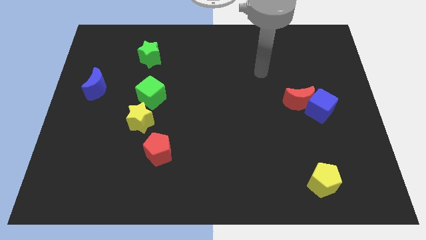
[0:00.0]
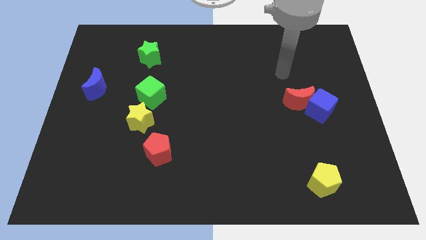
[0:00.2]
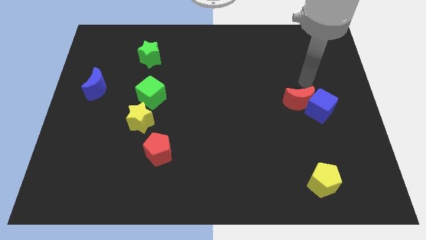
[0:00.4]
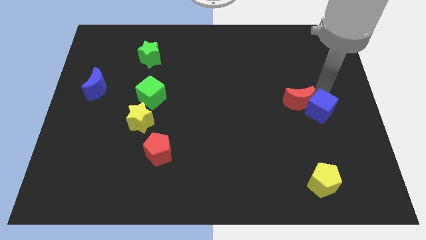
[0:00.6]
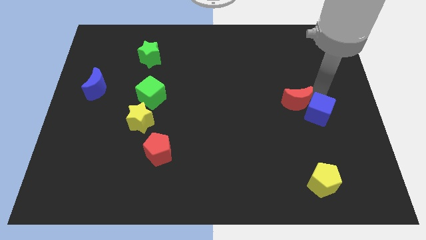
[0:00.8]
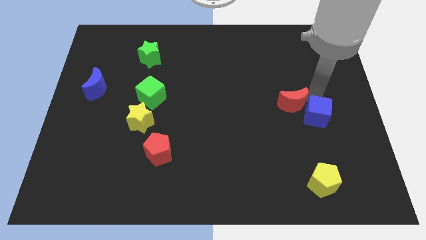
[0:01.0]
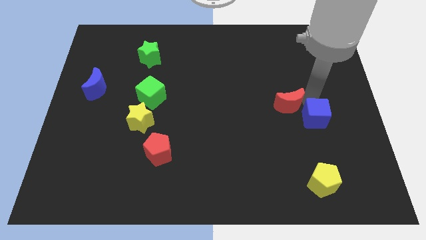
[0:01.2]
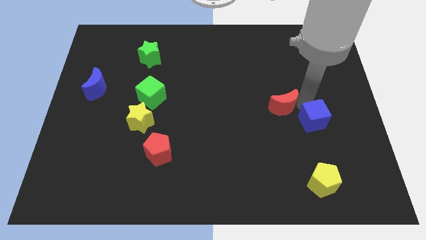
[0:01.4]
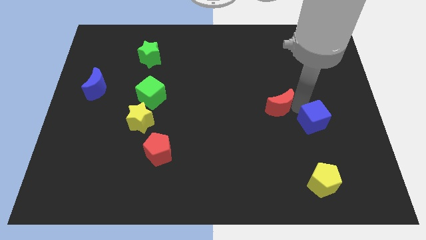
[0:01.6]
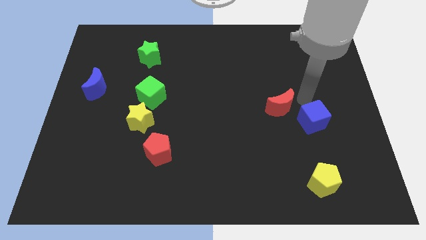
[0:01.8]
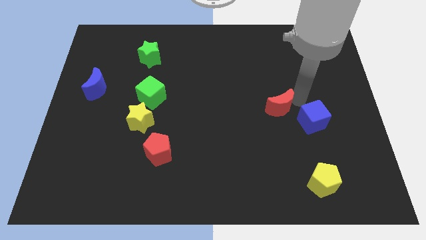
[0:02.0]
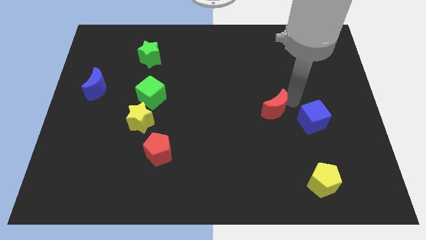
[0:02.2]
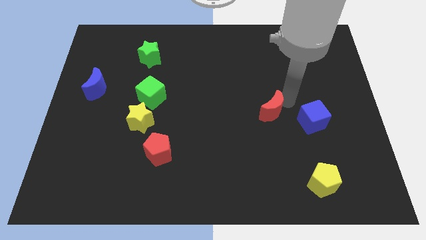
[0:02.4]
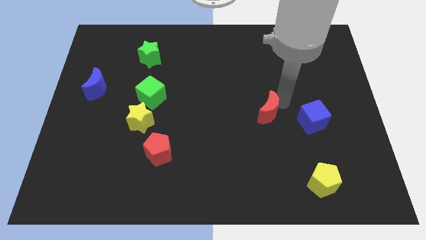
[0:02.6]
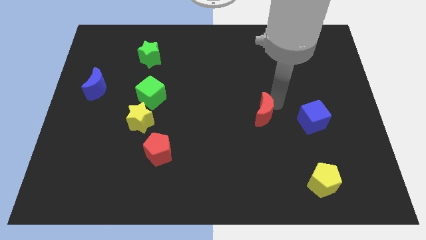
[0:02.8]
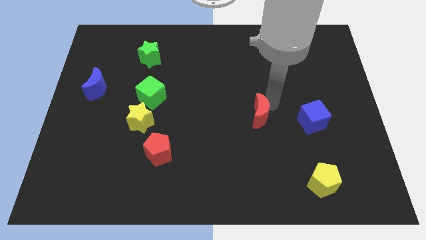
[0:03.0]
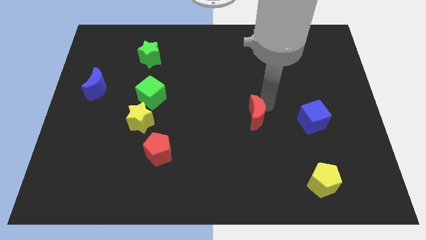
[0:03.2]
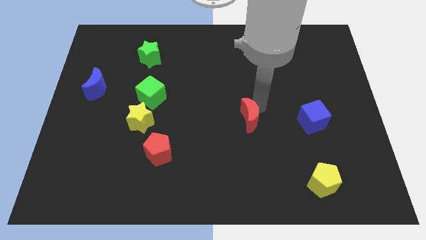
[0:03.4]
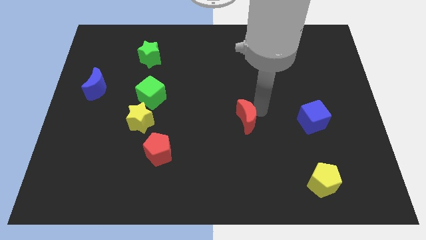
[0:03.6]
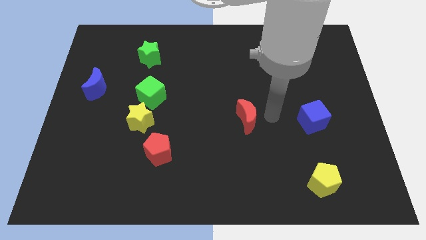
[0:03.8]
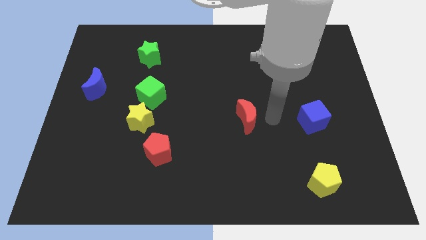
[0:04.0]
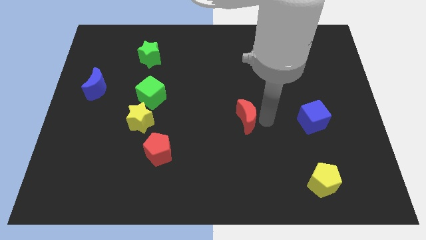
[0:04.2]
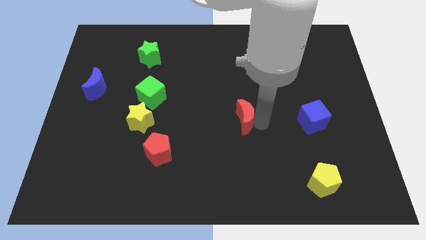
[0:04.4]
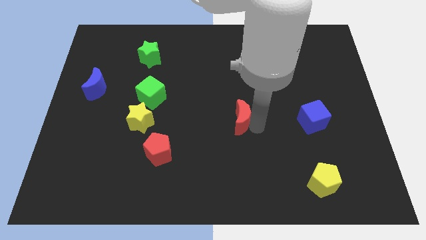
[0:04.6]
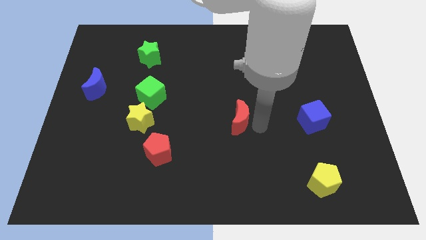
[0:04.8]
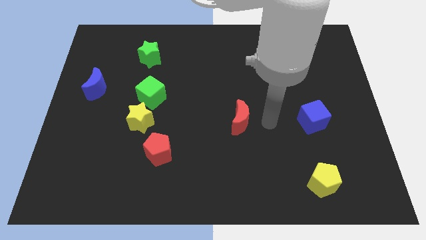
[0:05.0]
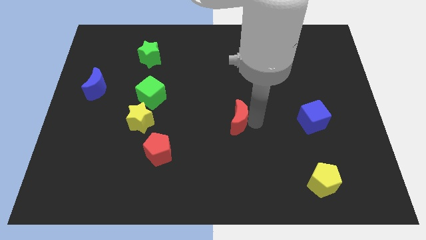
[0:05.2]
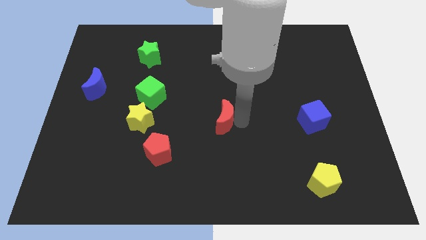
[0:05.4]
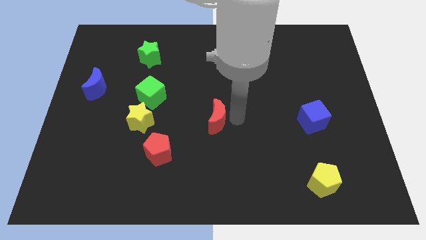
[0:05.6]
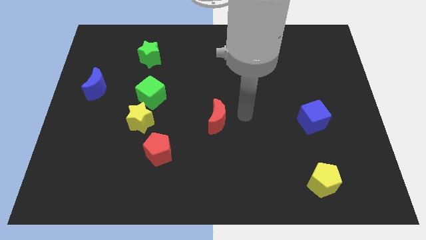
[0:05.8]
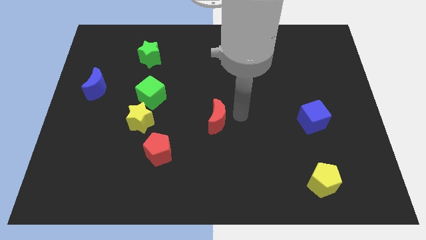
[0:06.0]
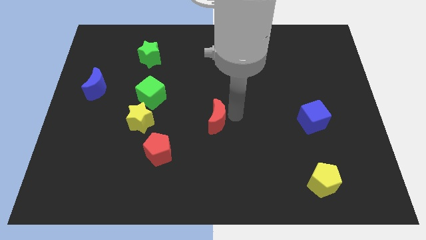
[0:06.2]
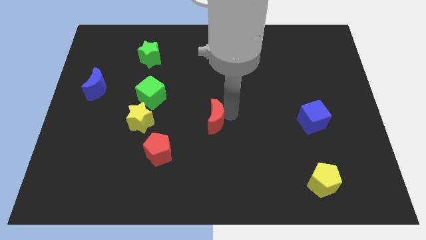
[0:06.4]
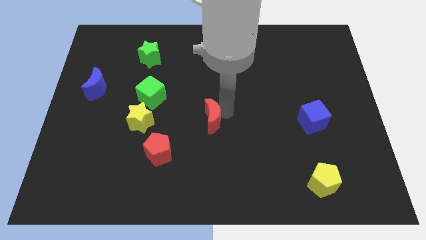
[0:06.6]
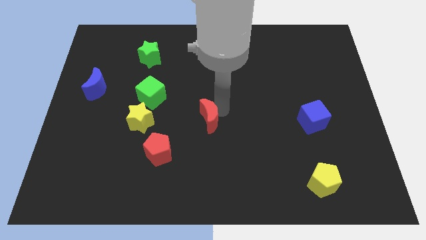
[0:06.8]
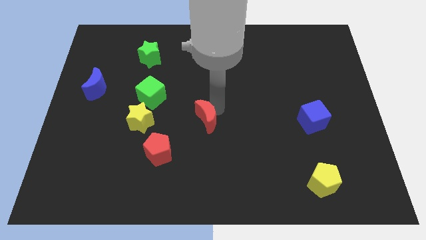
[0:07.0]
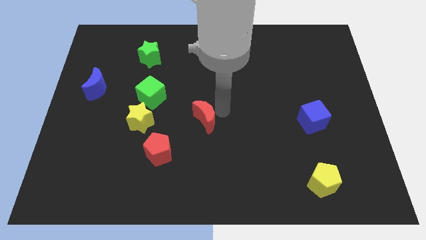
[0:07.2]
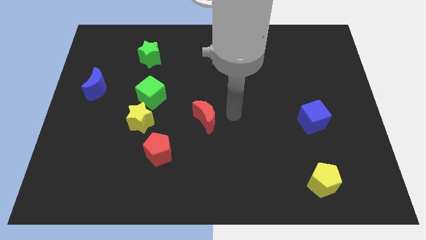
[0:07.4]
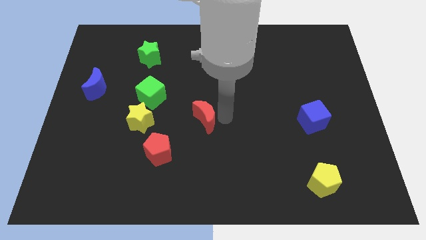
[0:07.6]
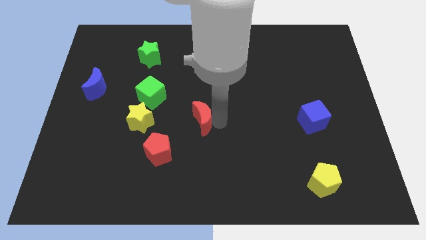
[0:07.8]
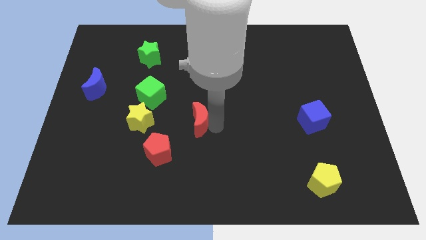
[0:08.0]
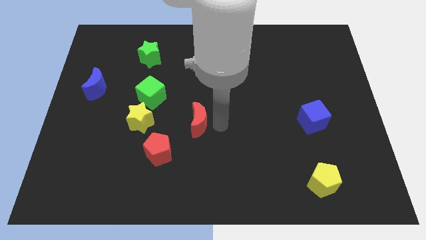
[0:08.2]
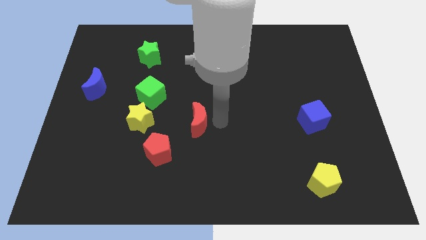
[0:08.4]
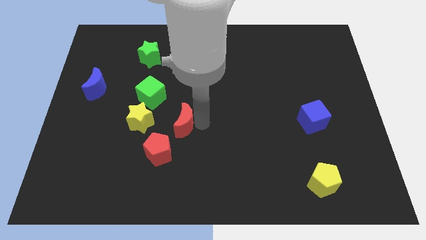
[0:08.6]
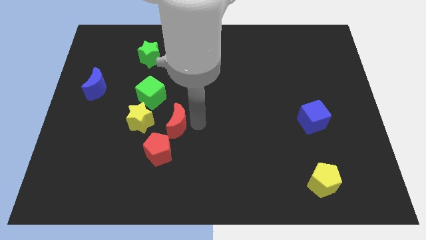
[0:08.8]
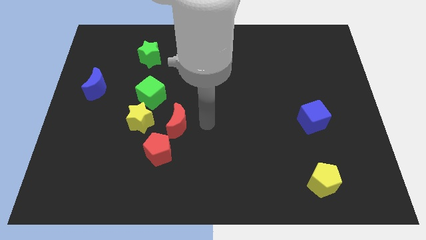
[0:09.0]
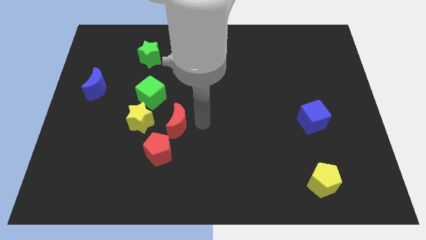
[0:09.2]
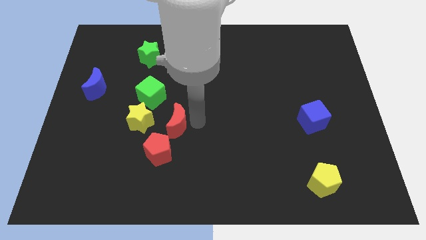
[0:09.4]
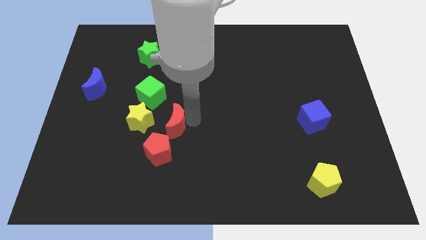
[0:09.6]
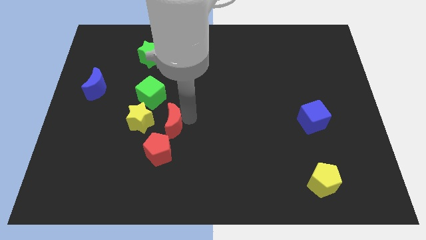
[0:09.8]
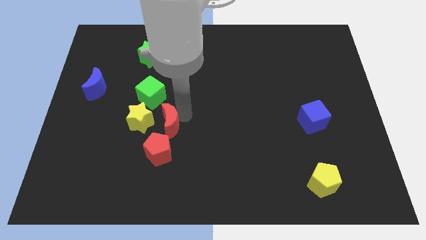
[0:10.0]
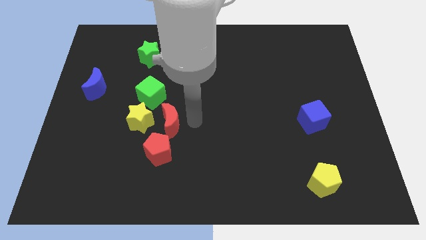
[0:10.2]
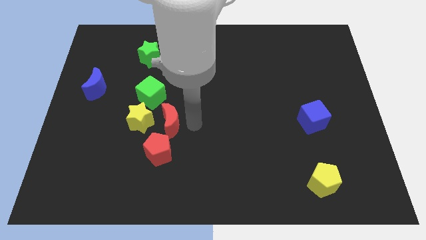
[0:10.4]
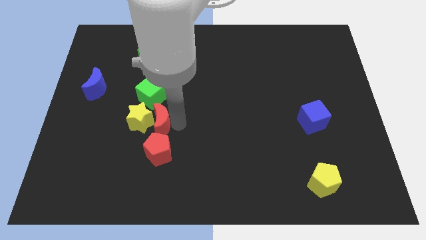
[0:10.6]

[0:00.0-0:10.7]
move the red moon towards the yellow star

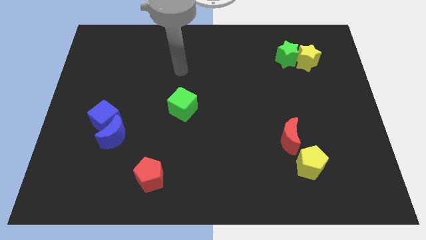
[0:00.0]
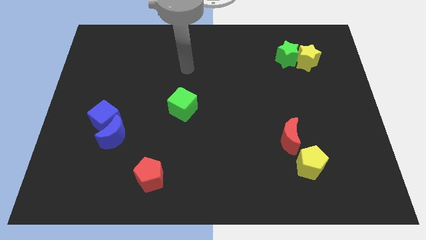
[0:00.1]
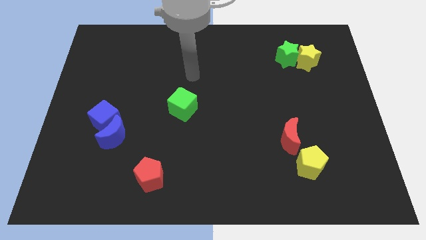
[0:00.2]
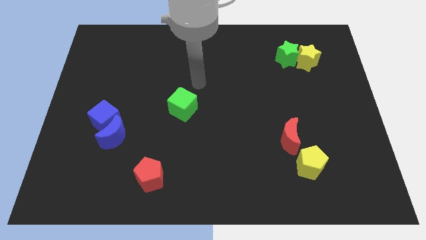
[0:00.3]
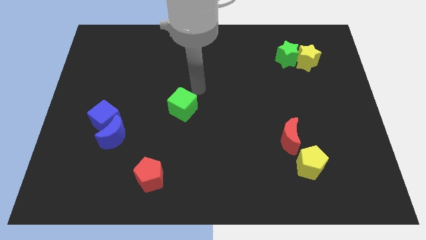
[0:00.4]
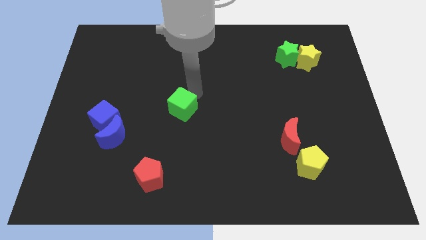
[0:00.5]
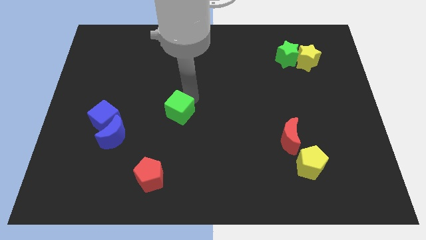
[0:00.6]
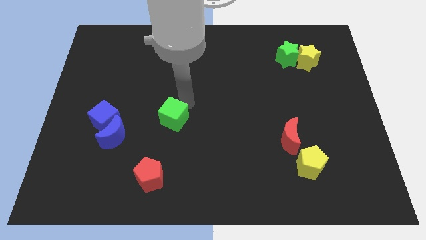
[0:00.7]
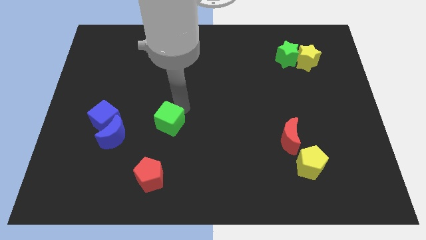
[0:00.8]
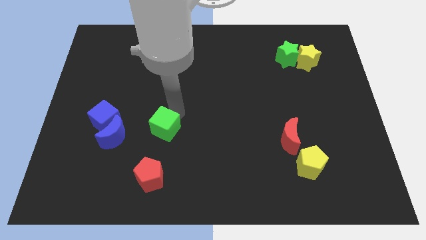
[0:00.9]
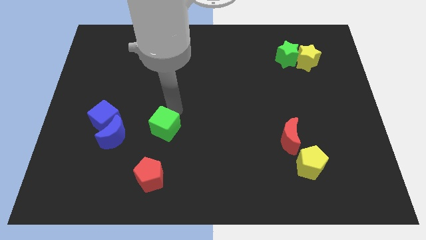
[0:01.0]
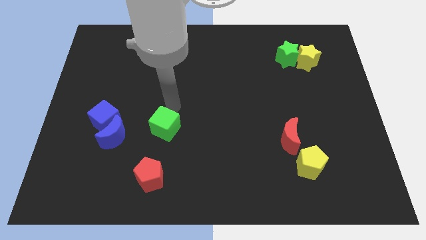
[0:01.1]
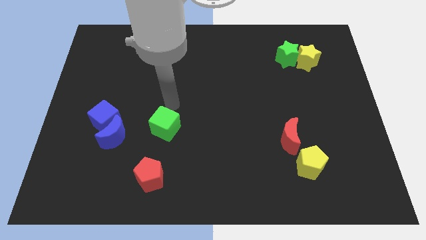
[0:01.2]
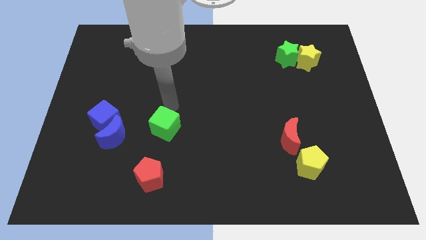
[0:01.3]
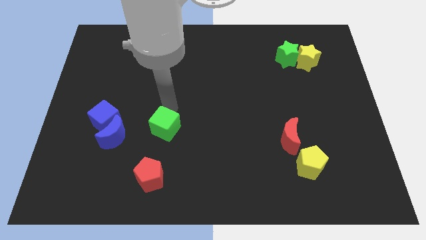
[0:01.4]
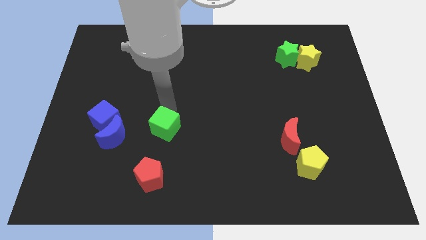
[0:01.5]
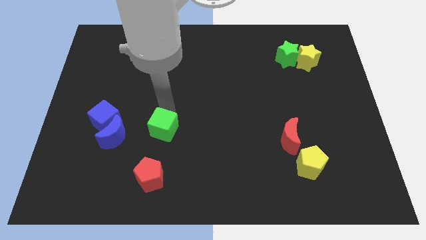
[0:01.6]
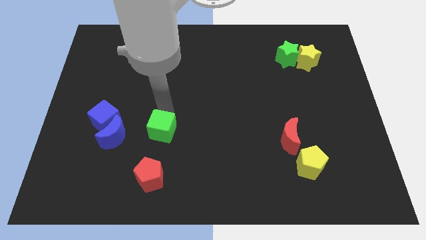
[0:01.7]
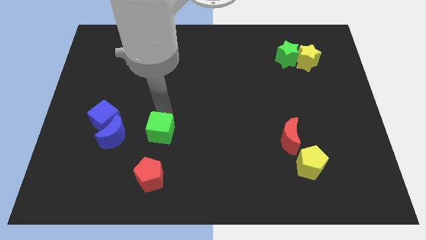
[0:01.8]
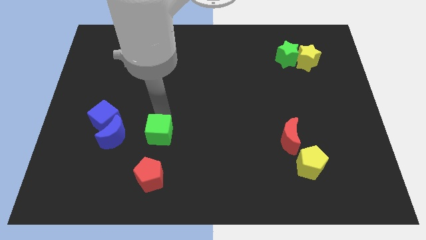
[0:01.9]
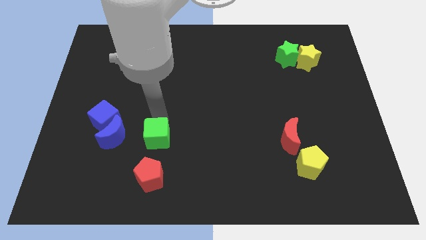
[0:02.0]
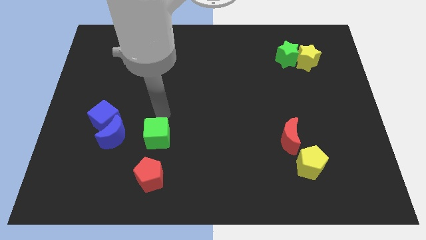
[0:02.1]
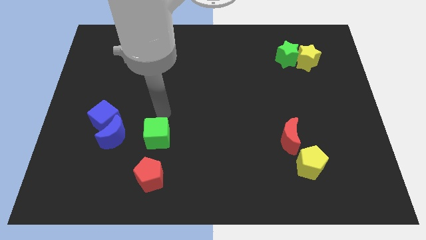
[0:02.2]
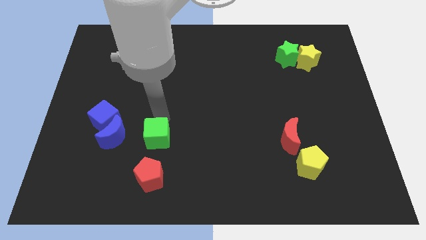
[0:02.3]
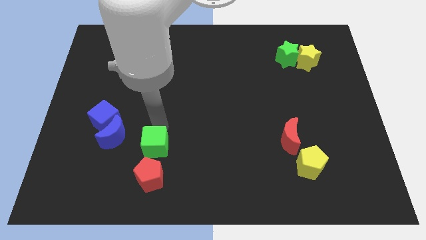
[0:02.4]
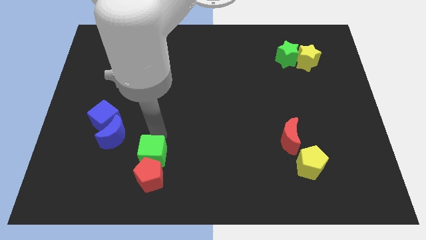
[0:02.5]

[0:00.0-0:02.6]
slide the green cube towards the red pentagon

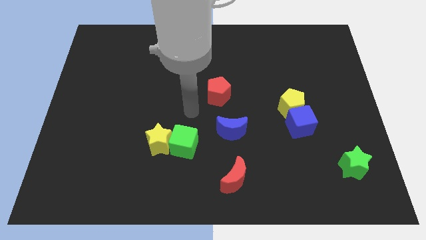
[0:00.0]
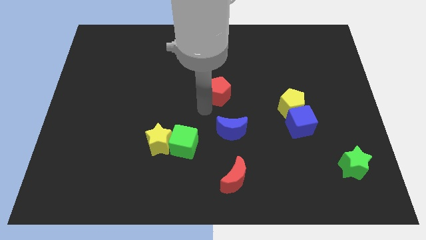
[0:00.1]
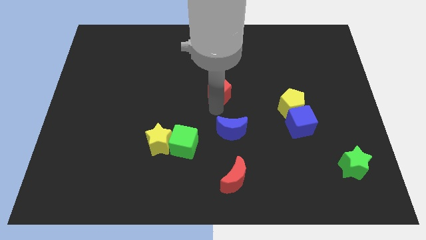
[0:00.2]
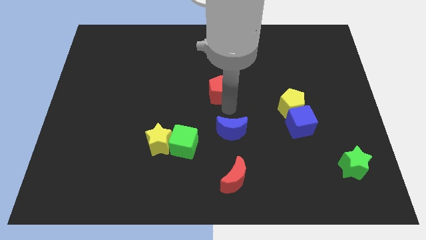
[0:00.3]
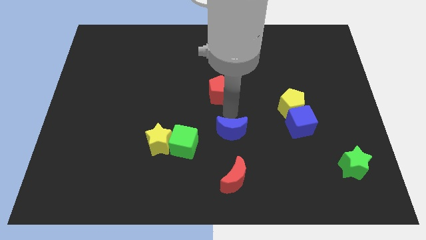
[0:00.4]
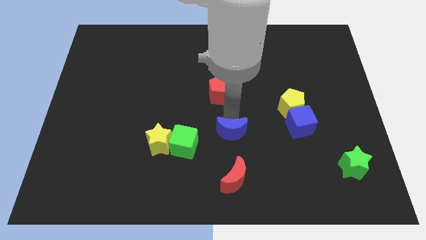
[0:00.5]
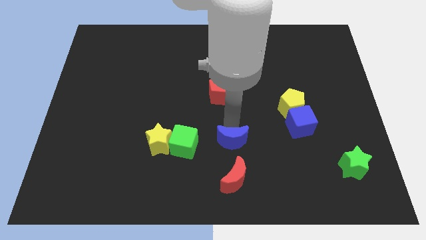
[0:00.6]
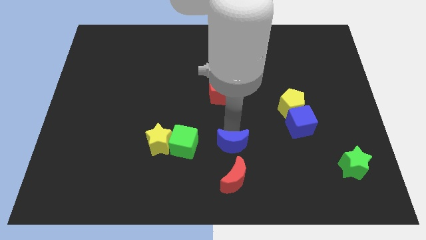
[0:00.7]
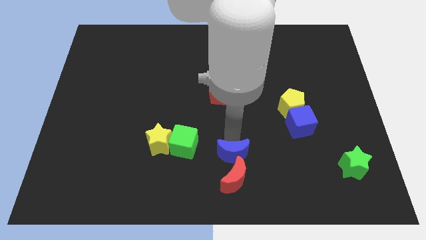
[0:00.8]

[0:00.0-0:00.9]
move the blue moon close to the red moon
